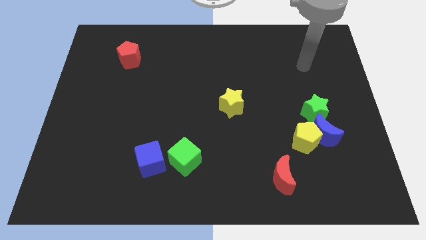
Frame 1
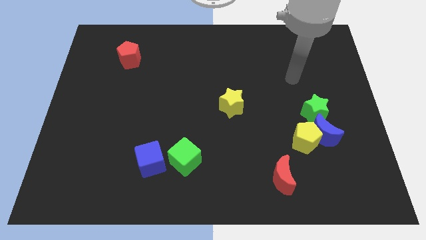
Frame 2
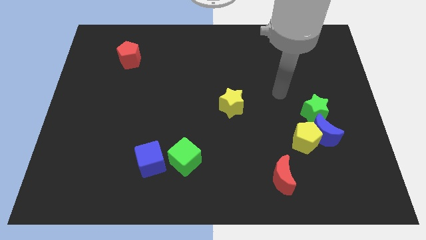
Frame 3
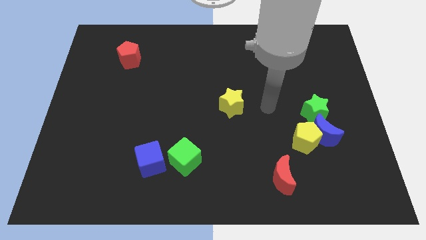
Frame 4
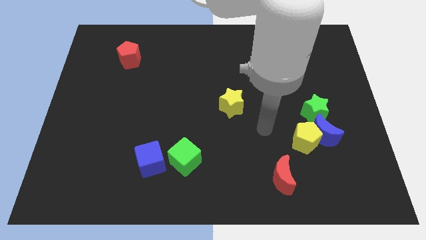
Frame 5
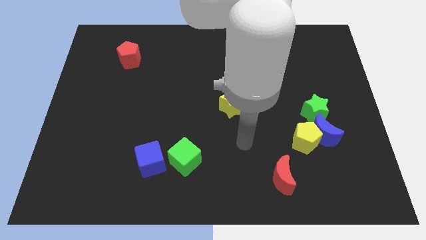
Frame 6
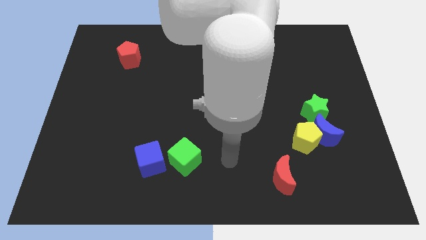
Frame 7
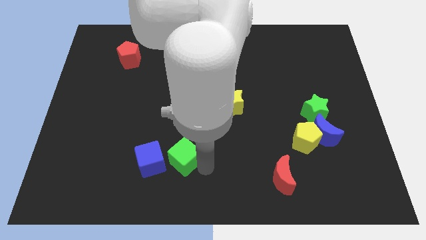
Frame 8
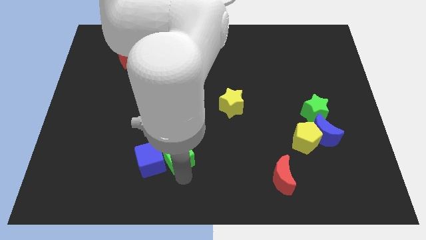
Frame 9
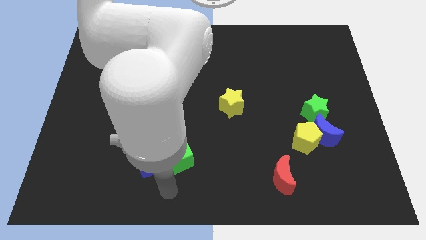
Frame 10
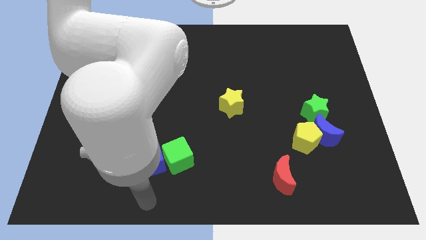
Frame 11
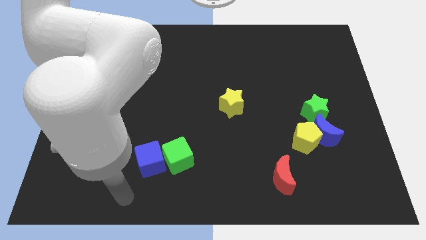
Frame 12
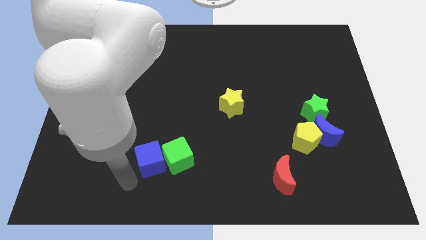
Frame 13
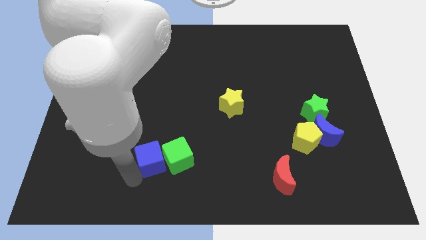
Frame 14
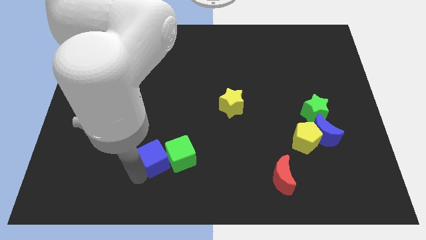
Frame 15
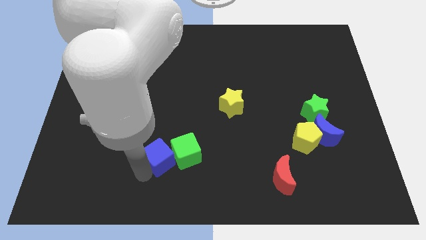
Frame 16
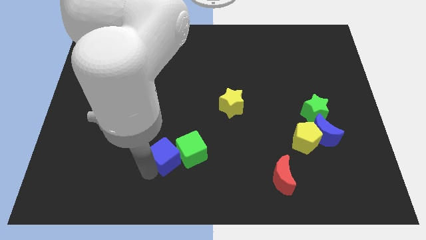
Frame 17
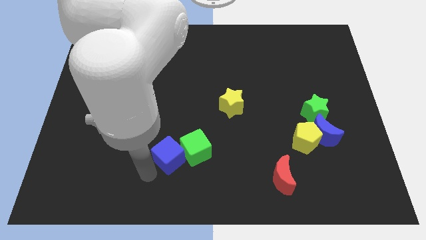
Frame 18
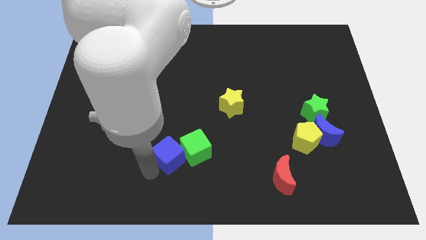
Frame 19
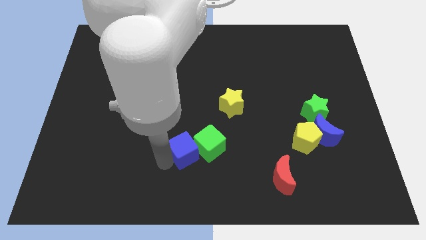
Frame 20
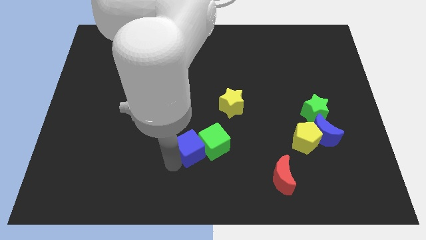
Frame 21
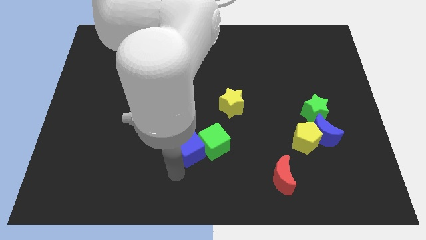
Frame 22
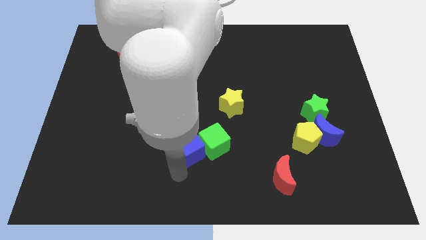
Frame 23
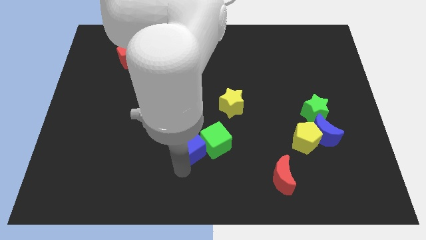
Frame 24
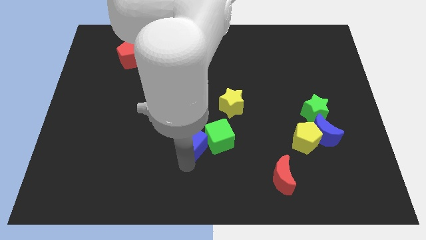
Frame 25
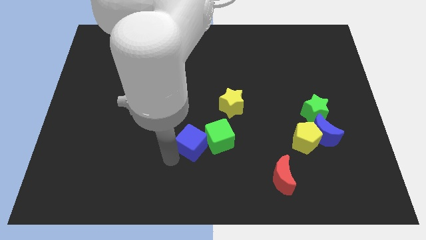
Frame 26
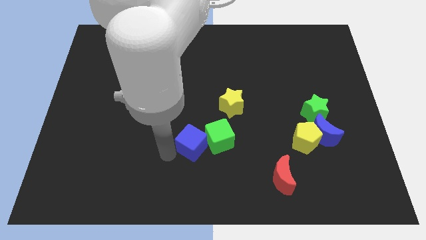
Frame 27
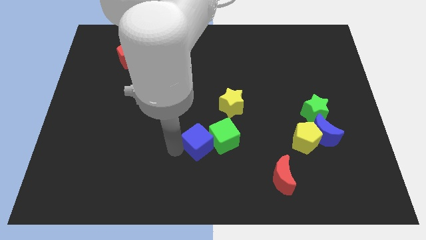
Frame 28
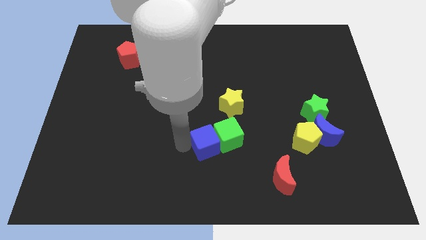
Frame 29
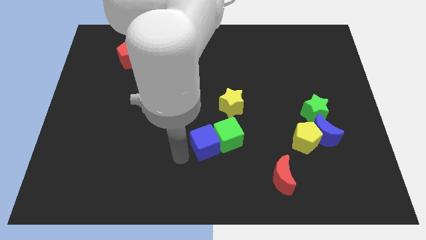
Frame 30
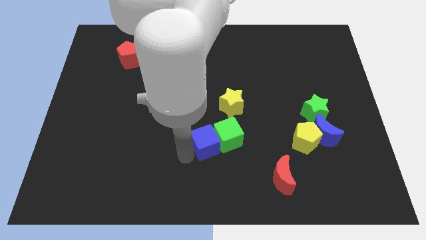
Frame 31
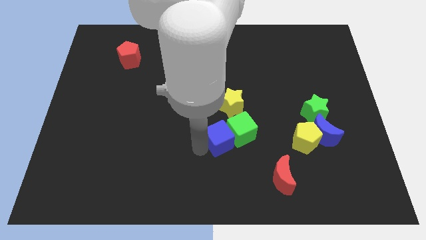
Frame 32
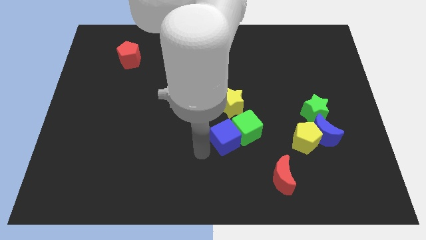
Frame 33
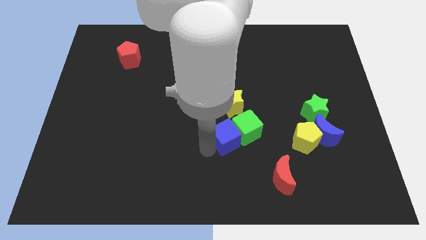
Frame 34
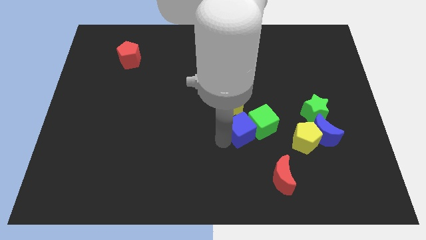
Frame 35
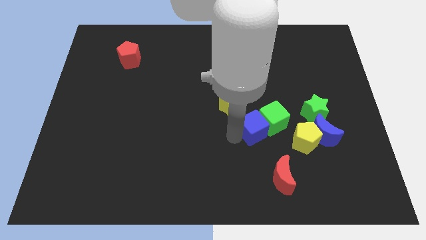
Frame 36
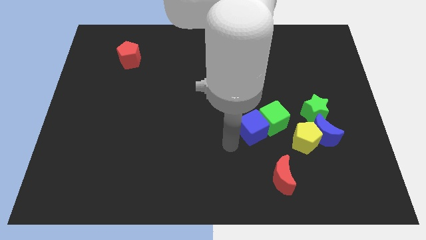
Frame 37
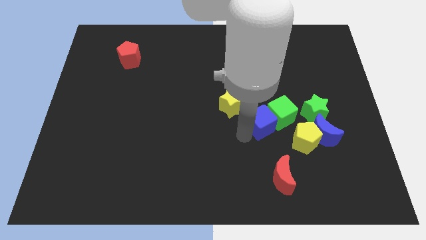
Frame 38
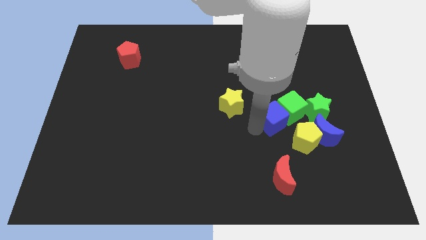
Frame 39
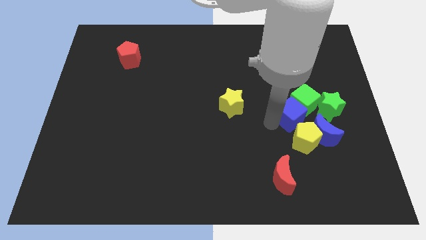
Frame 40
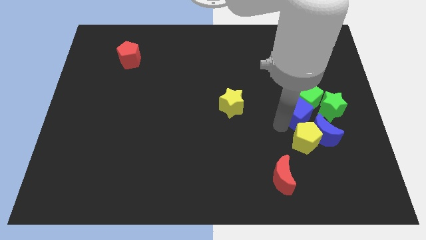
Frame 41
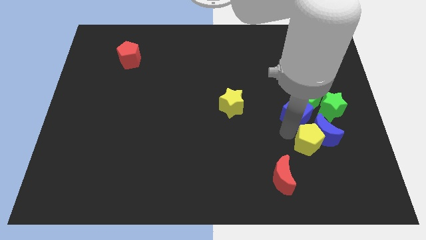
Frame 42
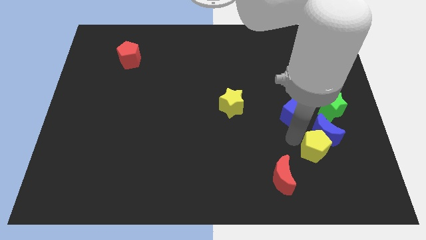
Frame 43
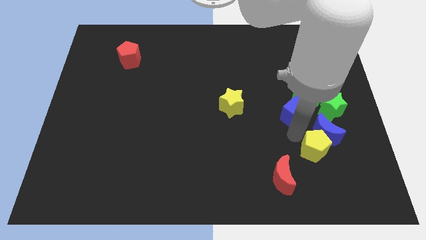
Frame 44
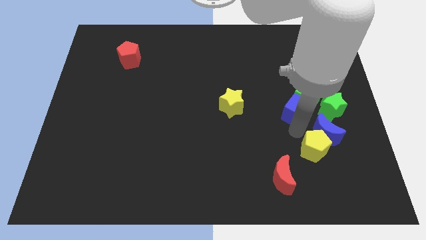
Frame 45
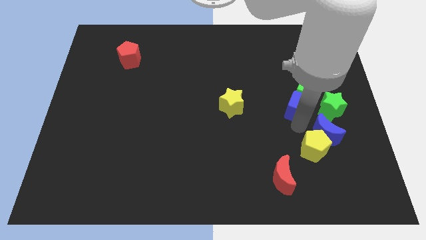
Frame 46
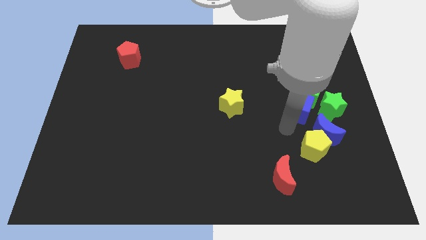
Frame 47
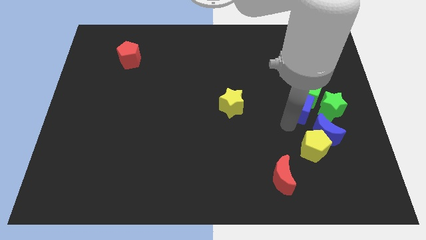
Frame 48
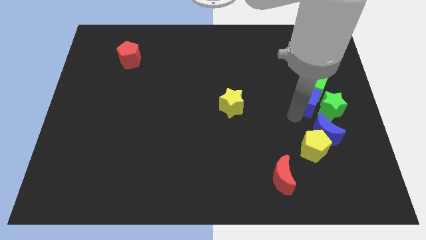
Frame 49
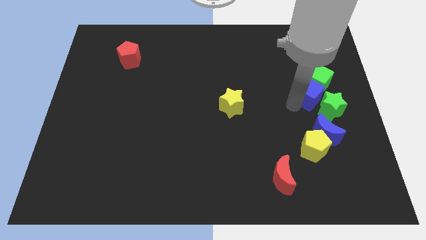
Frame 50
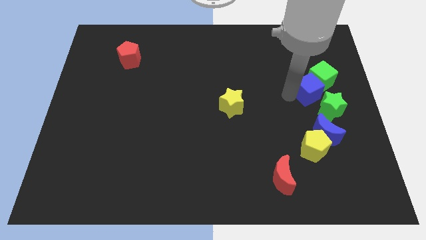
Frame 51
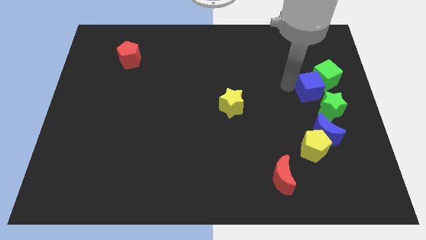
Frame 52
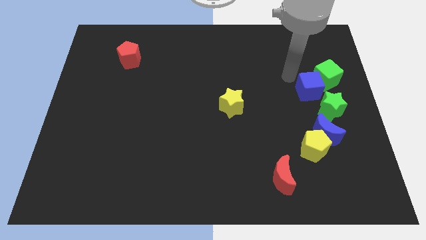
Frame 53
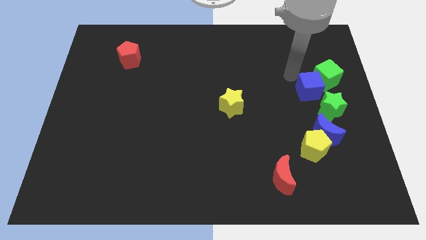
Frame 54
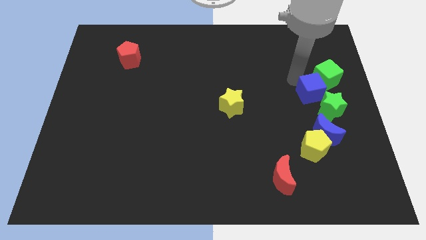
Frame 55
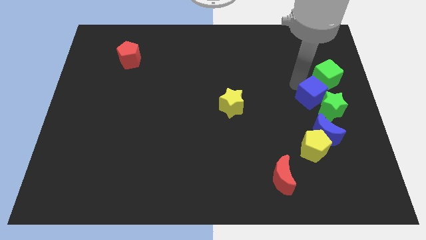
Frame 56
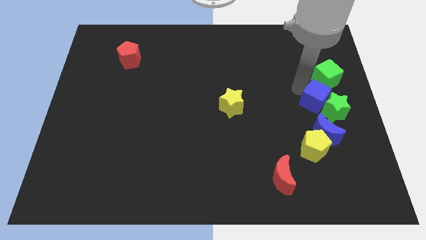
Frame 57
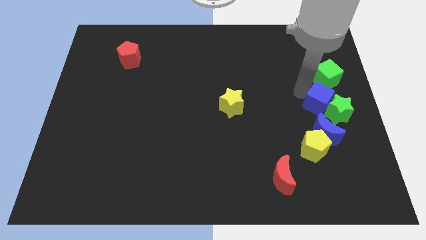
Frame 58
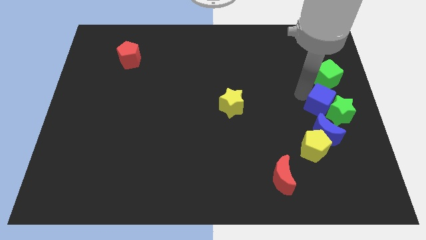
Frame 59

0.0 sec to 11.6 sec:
put the blue cube to the right side

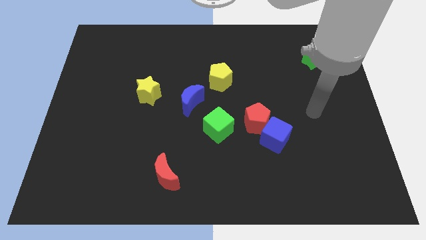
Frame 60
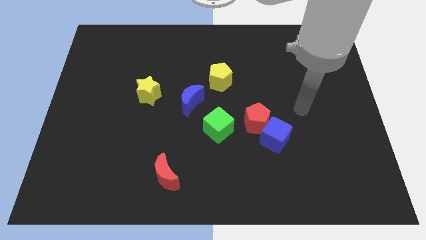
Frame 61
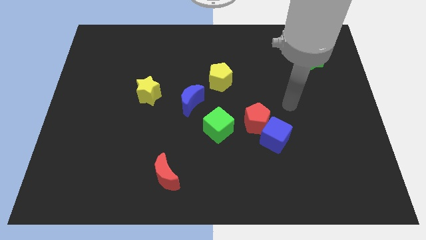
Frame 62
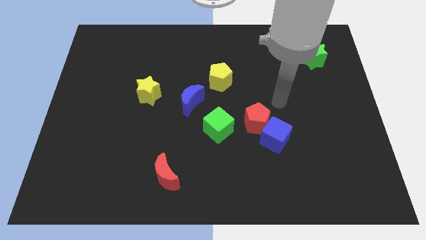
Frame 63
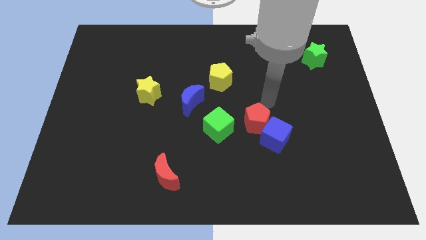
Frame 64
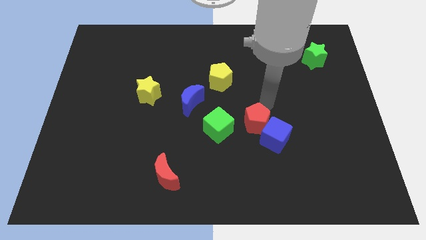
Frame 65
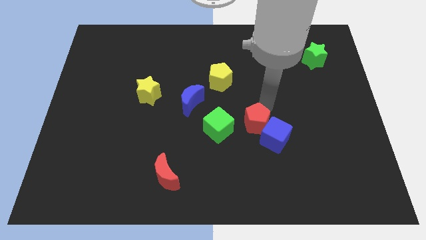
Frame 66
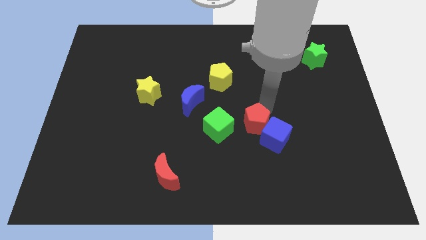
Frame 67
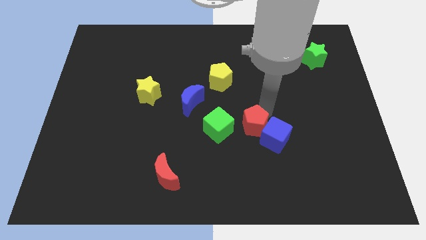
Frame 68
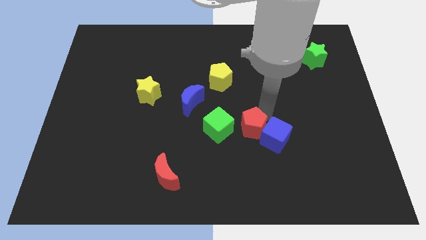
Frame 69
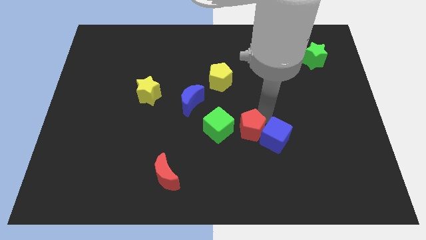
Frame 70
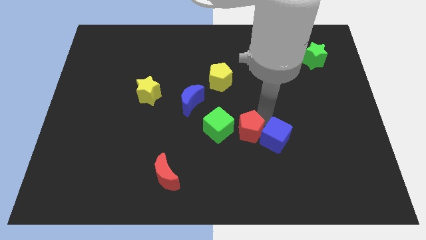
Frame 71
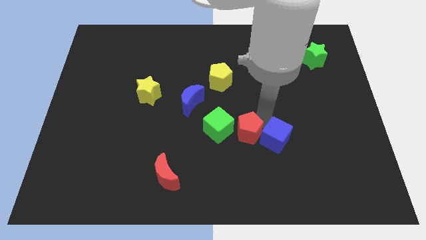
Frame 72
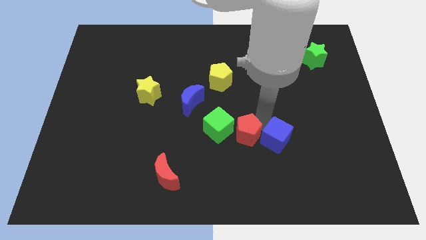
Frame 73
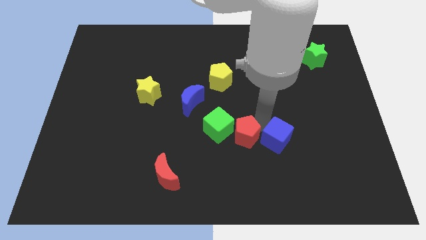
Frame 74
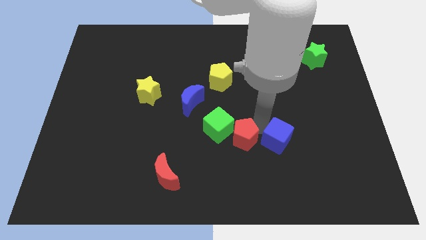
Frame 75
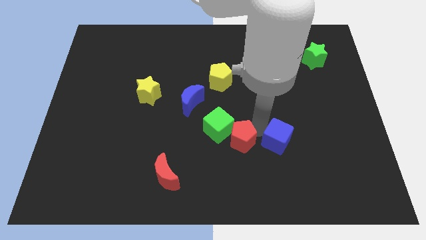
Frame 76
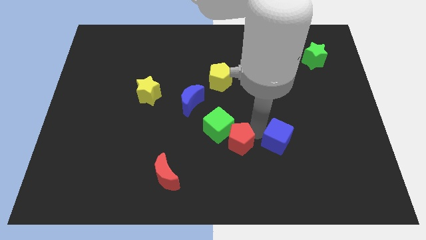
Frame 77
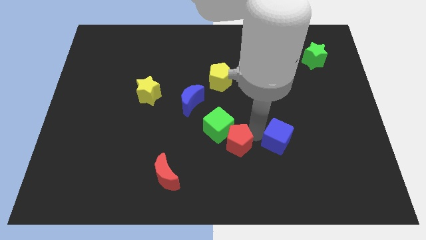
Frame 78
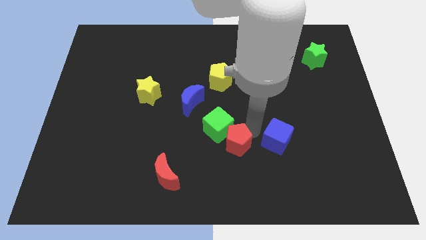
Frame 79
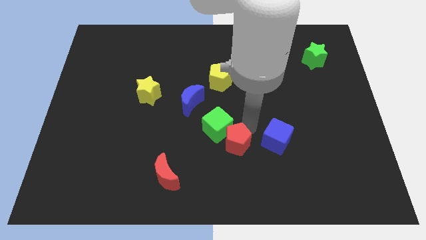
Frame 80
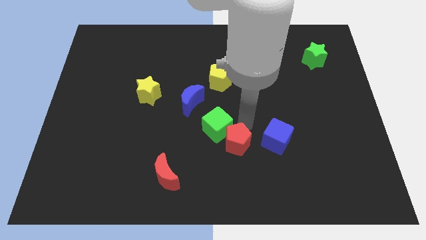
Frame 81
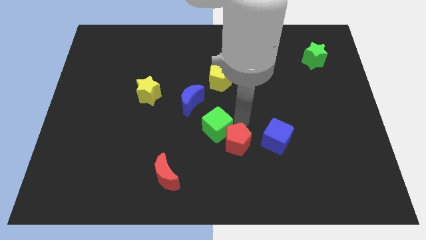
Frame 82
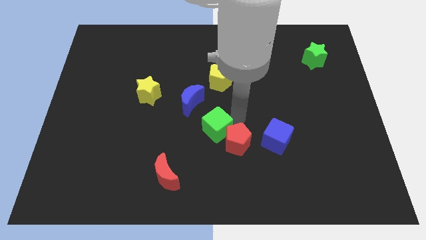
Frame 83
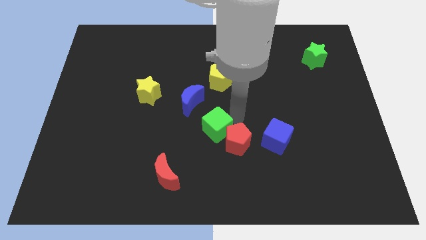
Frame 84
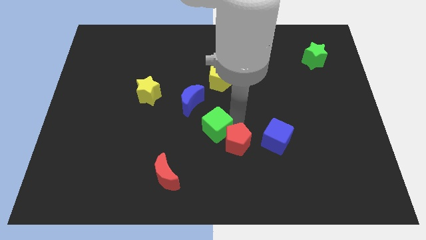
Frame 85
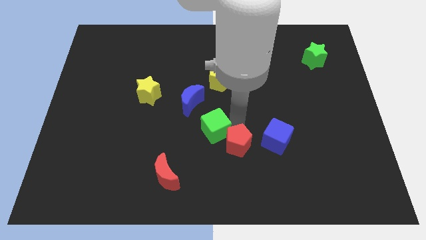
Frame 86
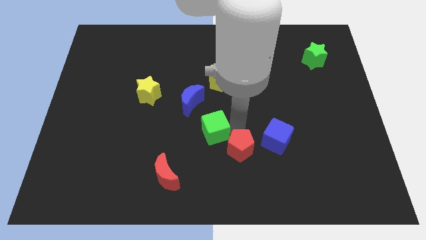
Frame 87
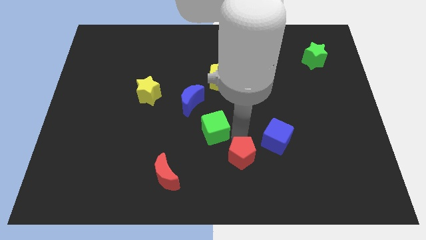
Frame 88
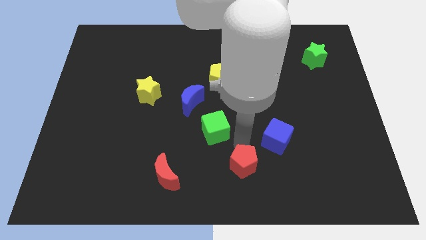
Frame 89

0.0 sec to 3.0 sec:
slide the red pentagon to the bottom side
